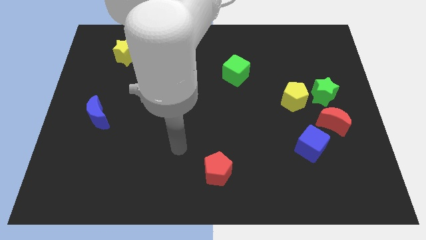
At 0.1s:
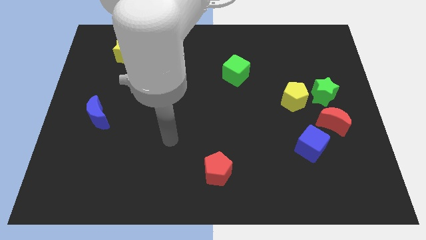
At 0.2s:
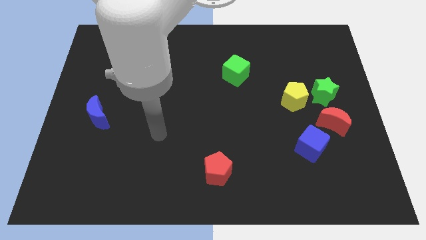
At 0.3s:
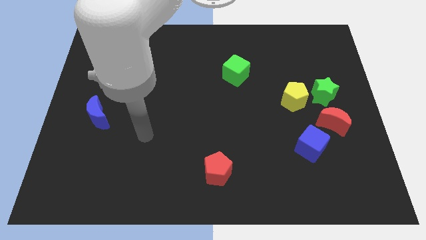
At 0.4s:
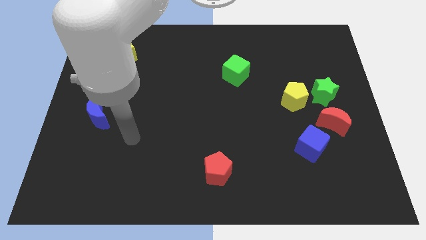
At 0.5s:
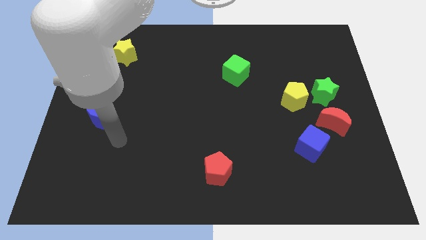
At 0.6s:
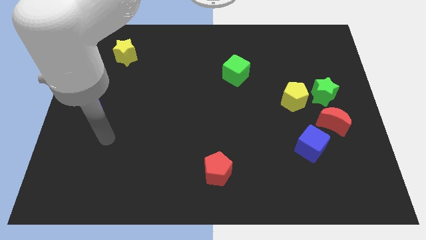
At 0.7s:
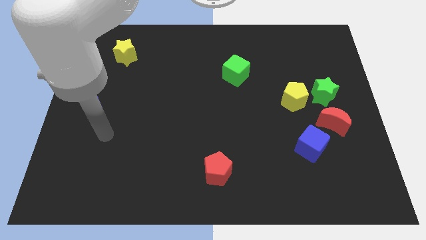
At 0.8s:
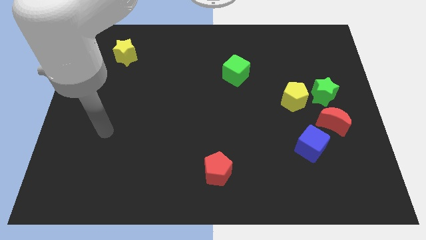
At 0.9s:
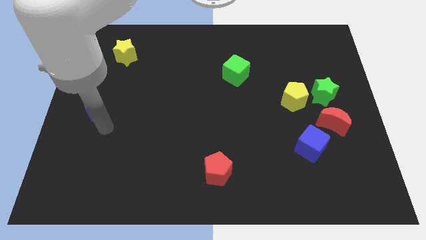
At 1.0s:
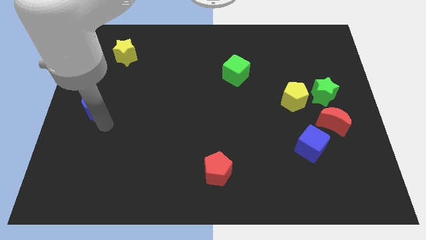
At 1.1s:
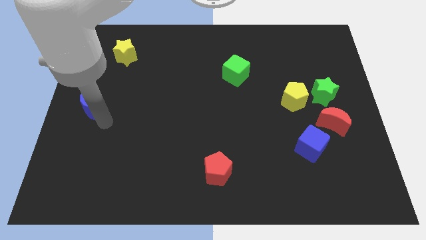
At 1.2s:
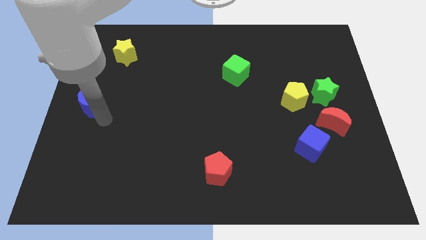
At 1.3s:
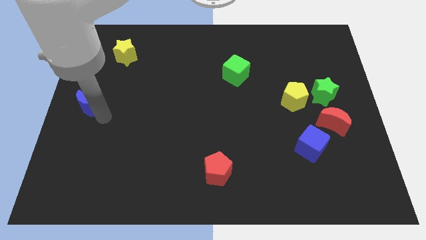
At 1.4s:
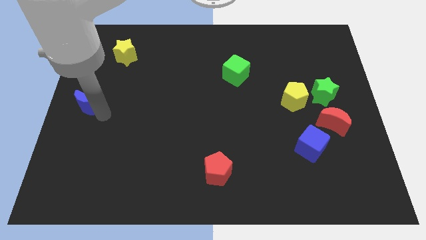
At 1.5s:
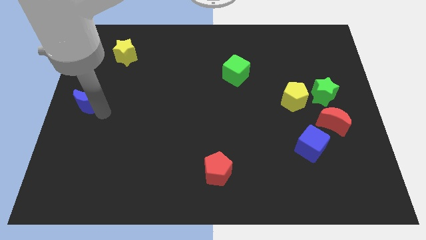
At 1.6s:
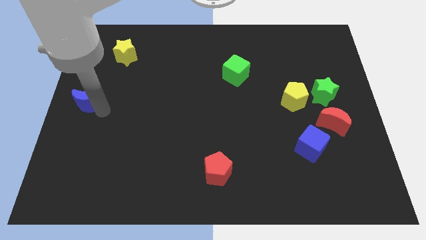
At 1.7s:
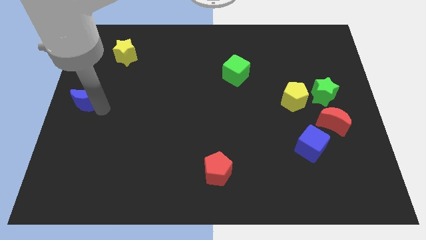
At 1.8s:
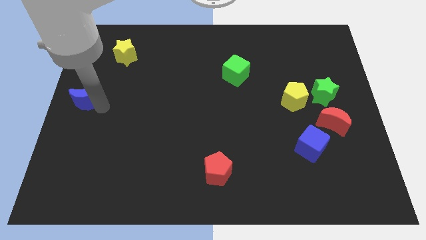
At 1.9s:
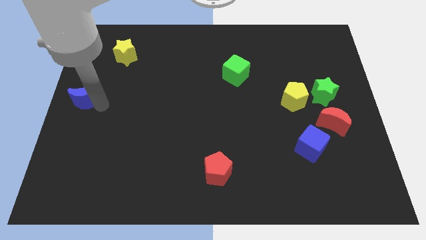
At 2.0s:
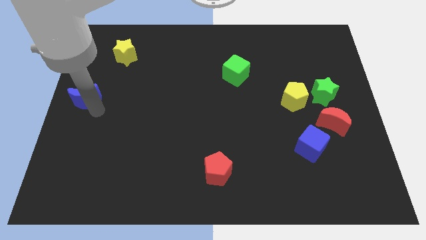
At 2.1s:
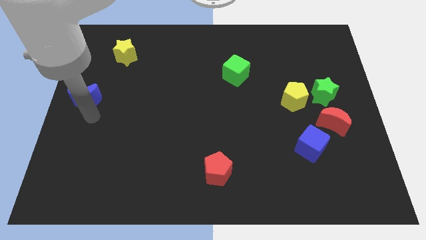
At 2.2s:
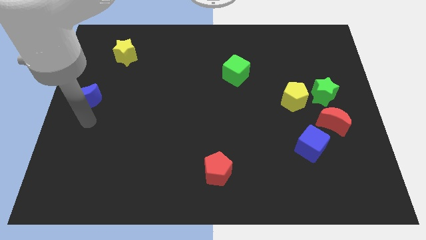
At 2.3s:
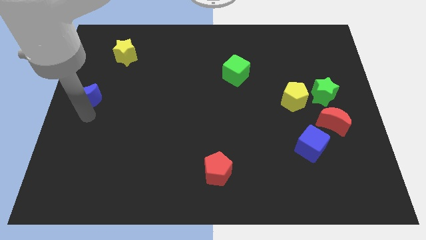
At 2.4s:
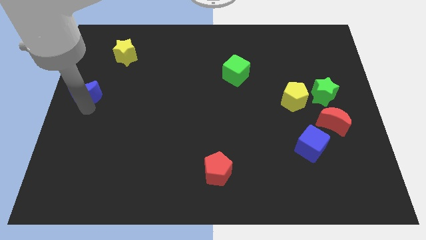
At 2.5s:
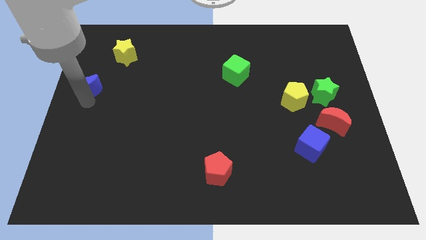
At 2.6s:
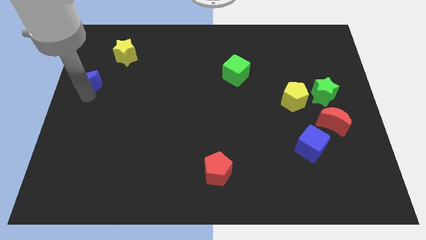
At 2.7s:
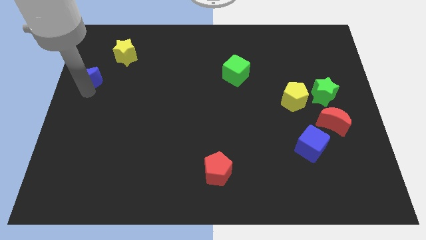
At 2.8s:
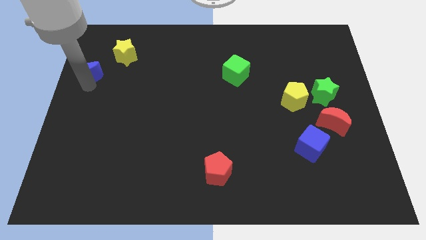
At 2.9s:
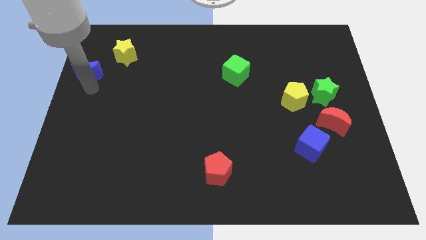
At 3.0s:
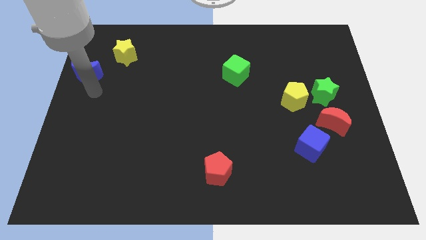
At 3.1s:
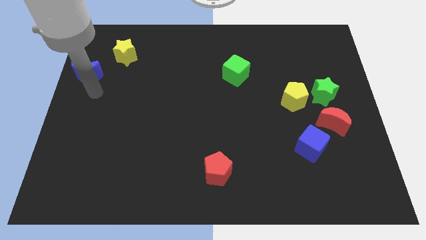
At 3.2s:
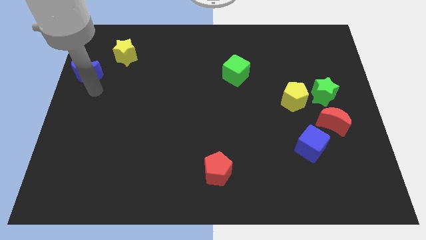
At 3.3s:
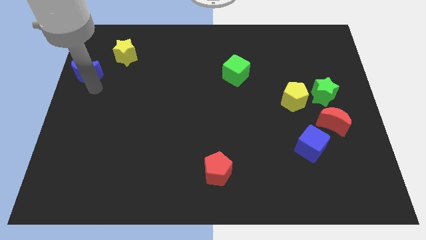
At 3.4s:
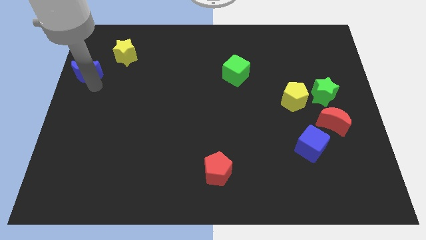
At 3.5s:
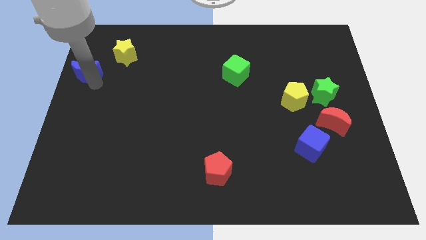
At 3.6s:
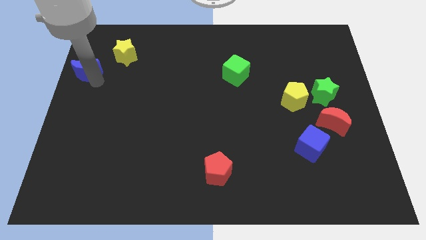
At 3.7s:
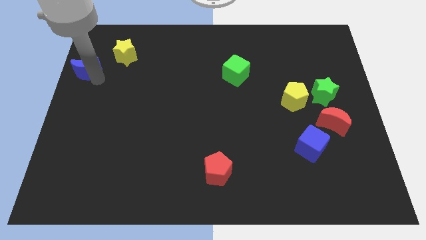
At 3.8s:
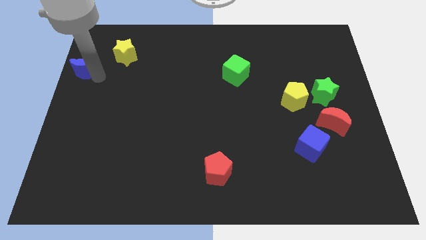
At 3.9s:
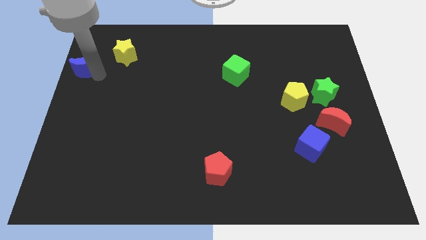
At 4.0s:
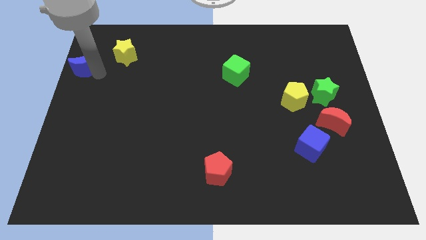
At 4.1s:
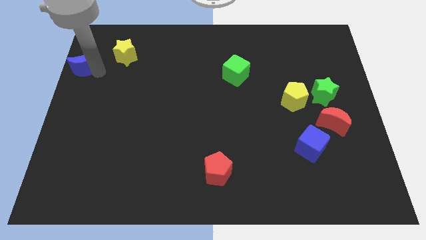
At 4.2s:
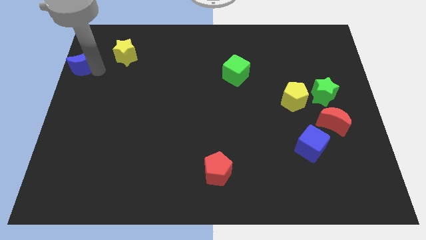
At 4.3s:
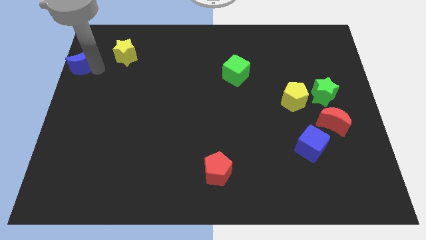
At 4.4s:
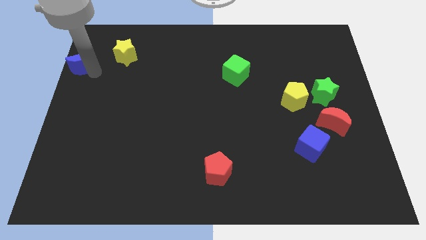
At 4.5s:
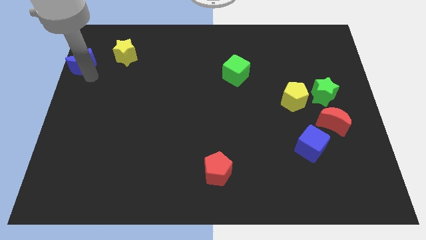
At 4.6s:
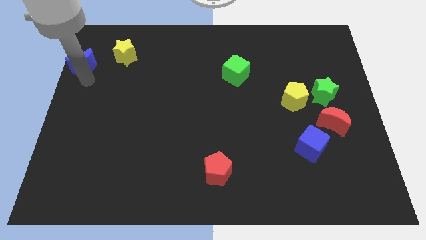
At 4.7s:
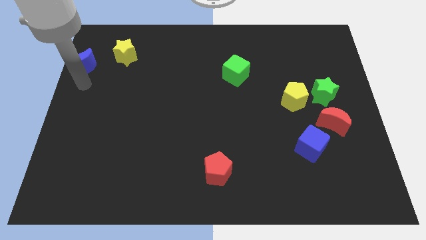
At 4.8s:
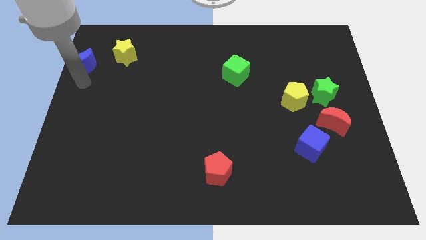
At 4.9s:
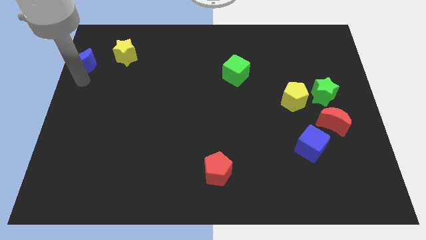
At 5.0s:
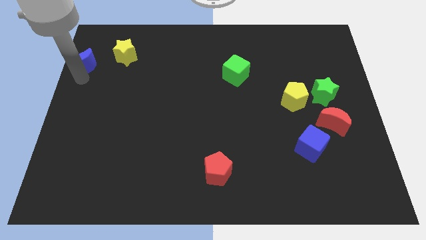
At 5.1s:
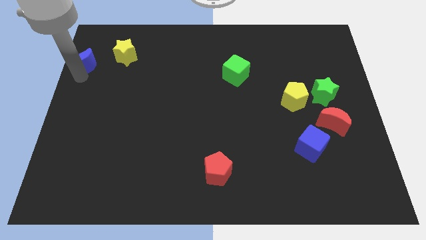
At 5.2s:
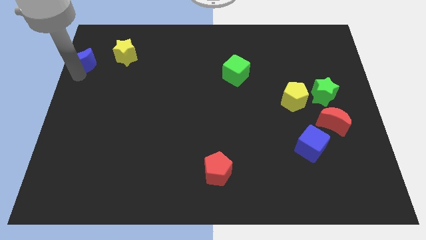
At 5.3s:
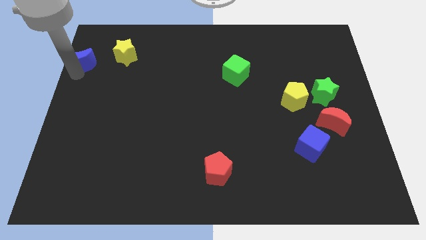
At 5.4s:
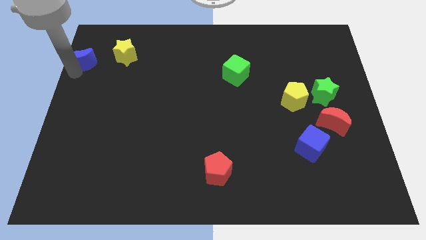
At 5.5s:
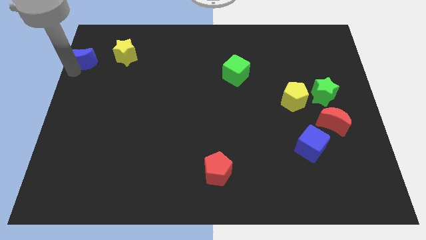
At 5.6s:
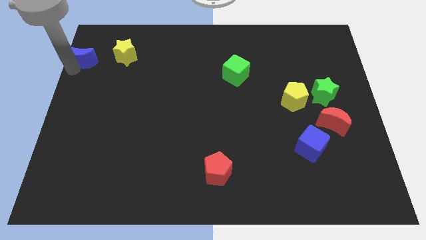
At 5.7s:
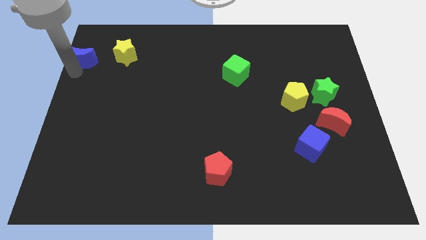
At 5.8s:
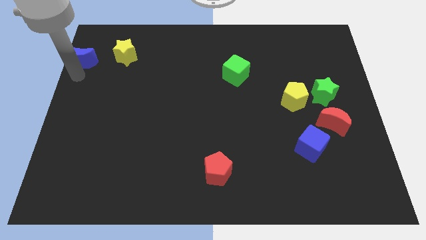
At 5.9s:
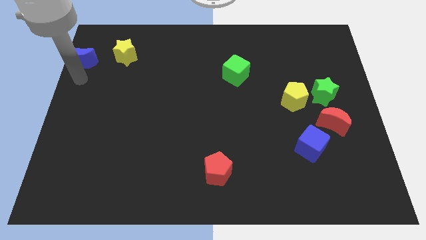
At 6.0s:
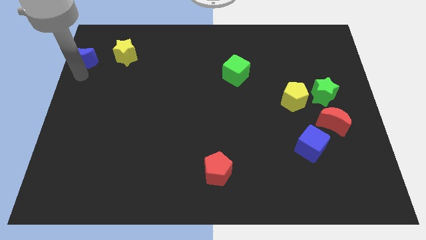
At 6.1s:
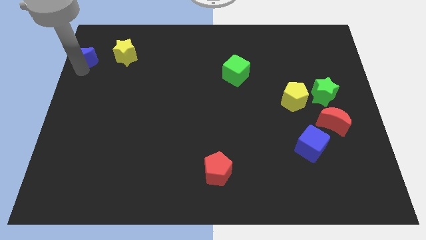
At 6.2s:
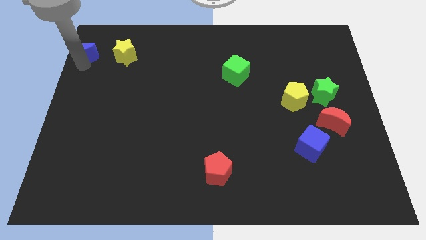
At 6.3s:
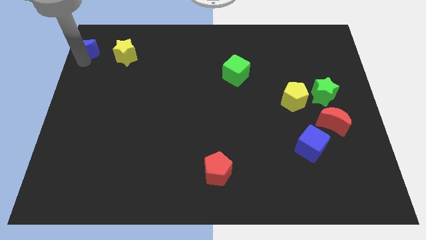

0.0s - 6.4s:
move the blue moon to the top left corner

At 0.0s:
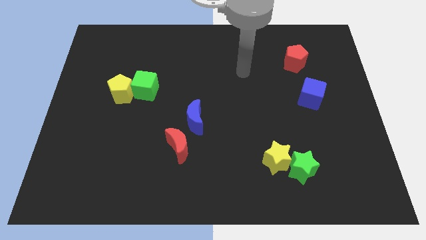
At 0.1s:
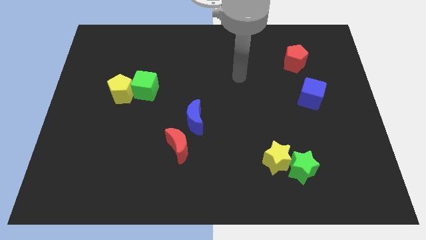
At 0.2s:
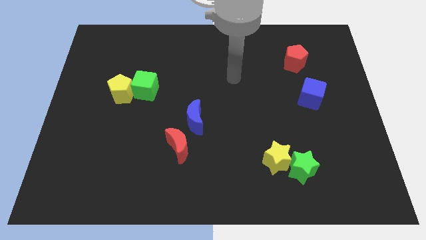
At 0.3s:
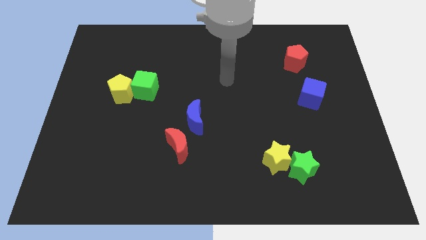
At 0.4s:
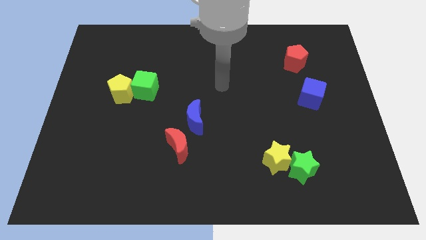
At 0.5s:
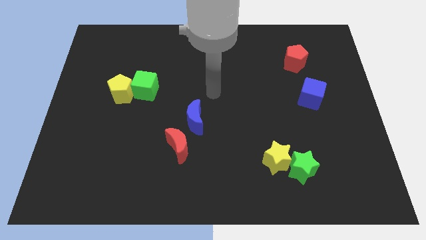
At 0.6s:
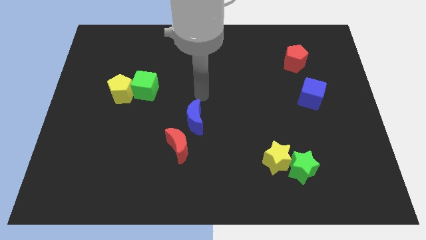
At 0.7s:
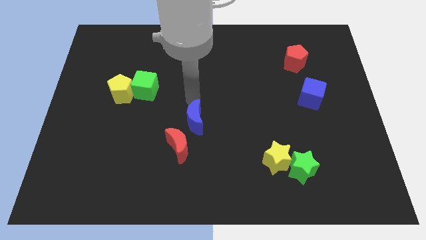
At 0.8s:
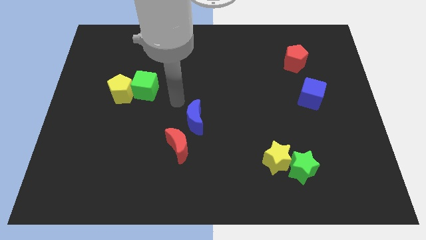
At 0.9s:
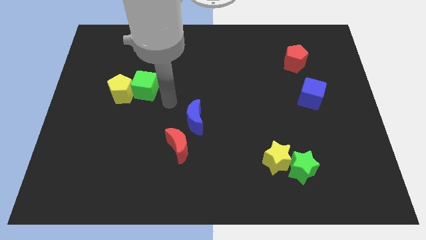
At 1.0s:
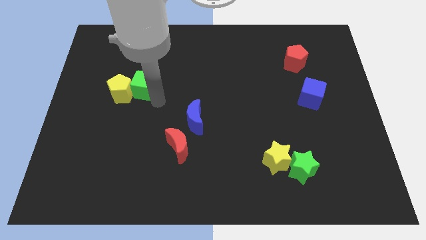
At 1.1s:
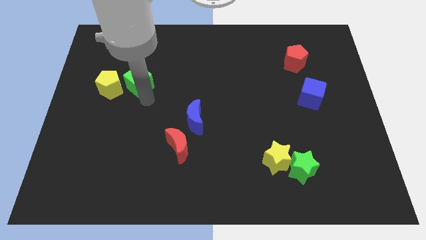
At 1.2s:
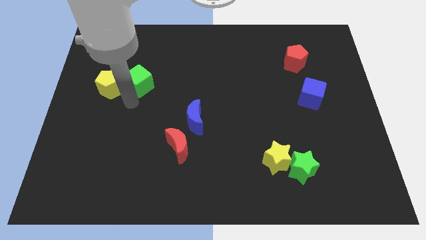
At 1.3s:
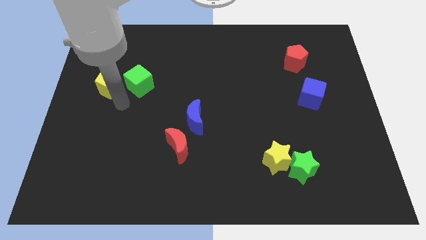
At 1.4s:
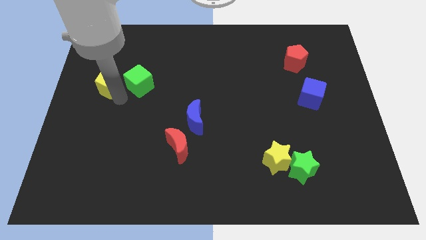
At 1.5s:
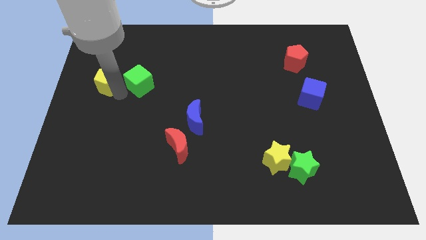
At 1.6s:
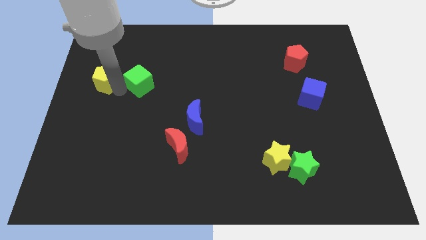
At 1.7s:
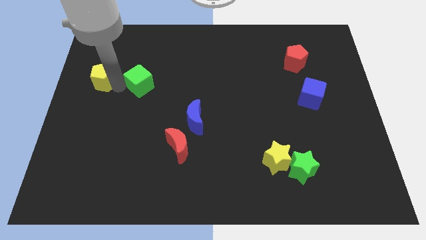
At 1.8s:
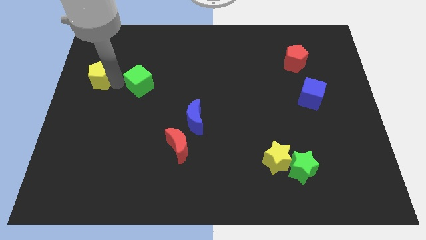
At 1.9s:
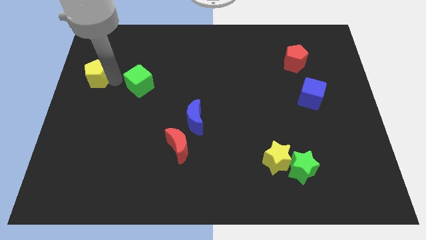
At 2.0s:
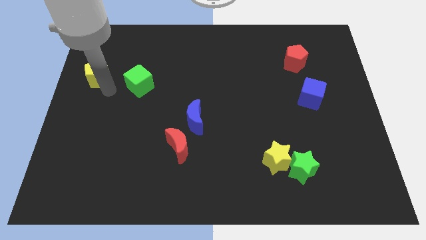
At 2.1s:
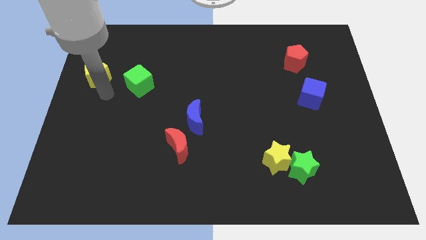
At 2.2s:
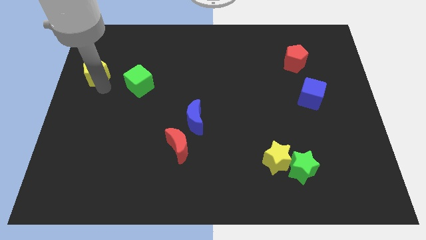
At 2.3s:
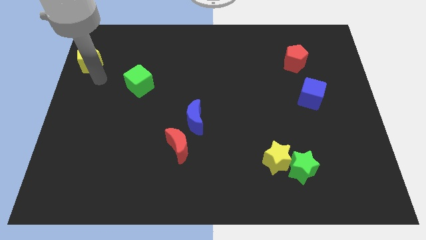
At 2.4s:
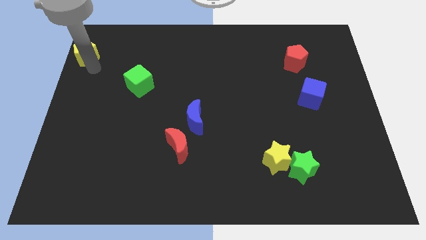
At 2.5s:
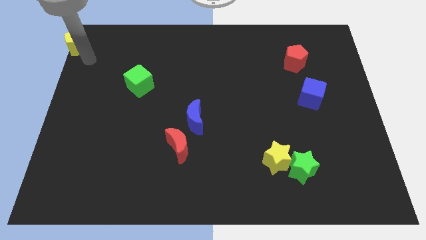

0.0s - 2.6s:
put the yellow pentagon to the top left of the board
